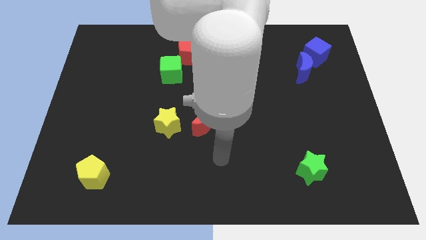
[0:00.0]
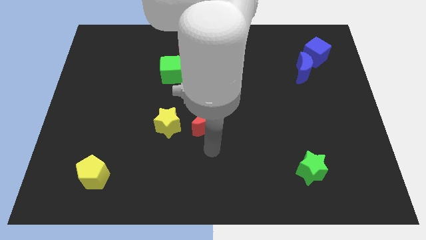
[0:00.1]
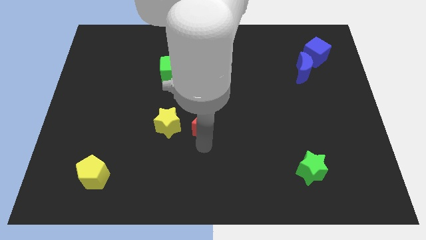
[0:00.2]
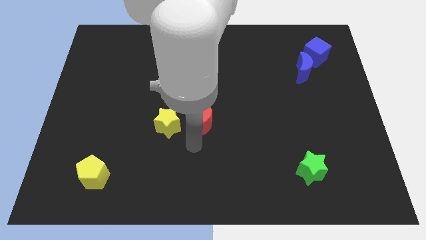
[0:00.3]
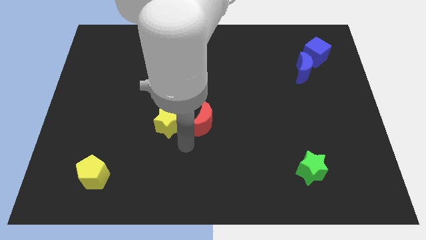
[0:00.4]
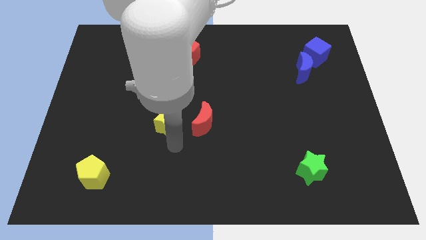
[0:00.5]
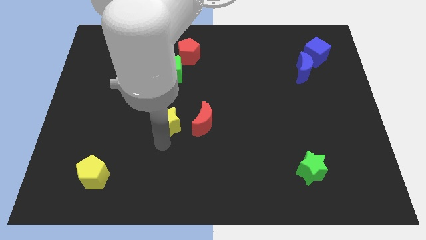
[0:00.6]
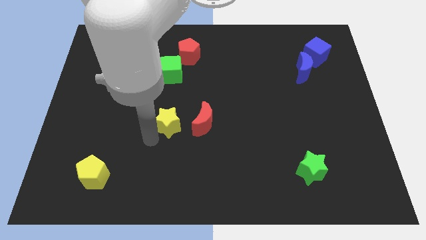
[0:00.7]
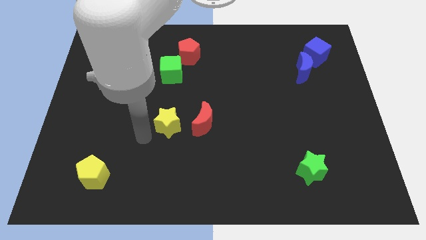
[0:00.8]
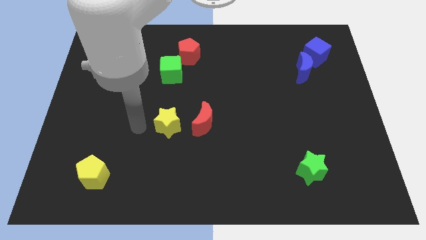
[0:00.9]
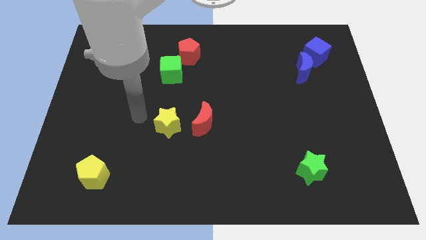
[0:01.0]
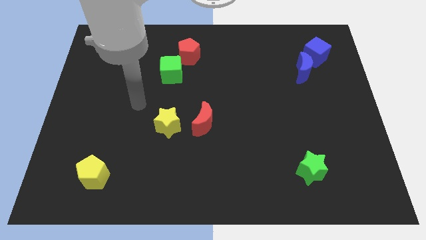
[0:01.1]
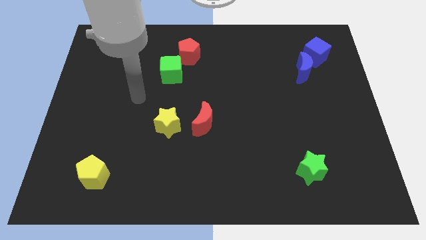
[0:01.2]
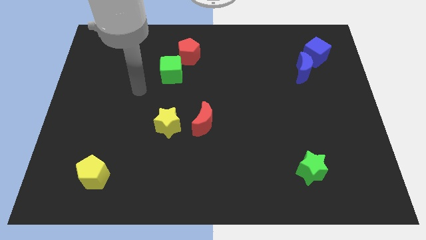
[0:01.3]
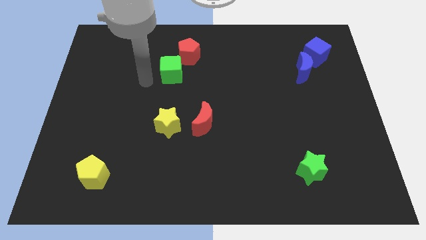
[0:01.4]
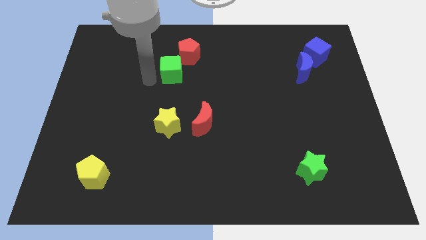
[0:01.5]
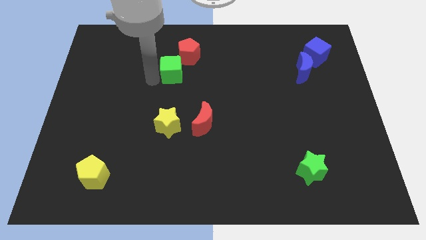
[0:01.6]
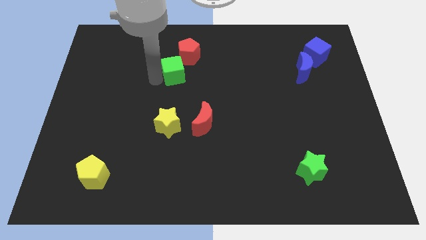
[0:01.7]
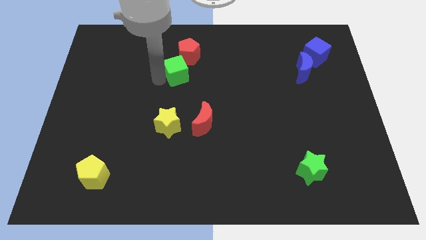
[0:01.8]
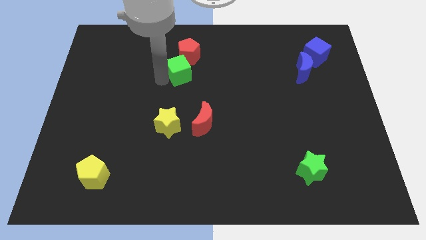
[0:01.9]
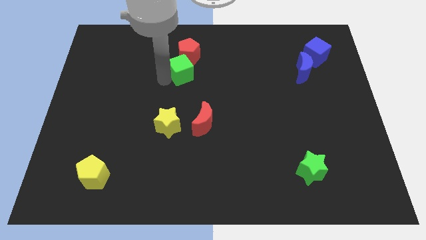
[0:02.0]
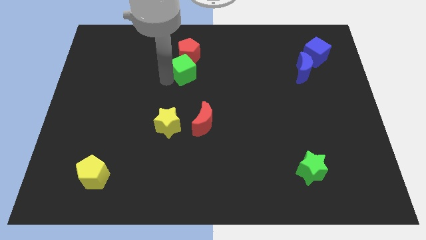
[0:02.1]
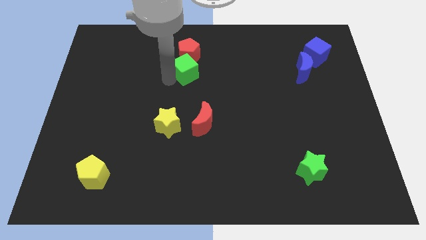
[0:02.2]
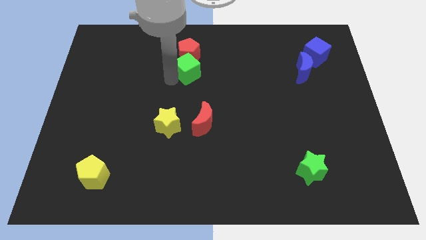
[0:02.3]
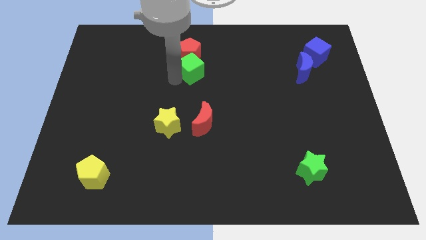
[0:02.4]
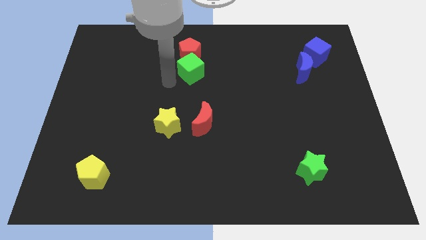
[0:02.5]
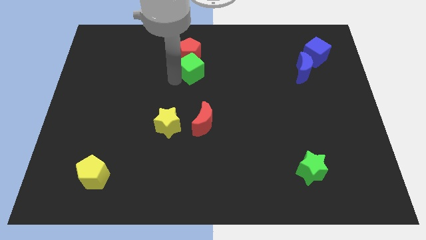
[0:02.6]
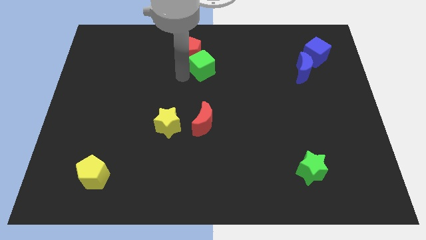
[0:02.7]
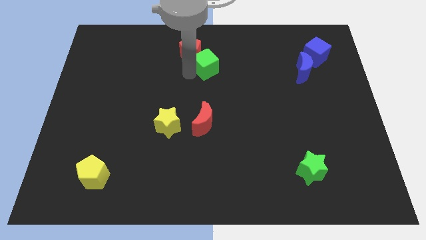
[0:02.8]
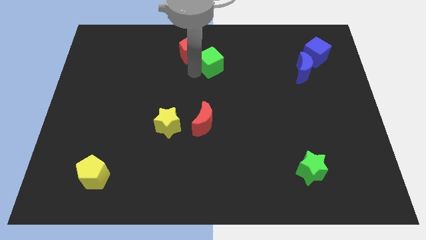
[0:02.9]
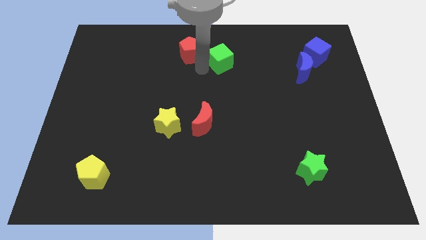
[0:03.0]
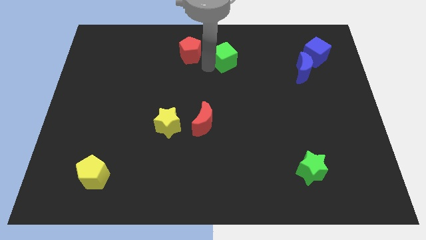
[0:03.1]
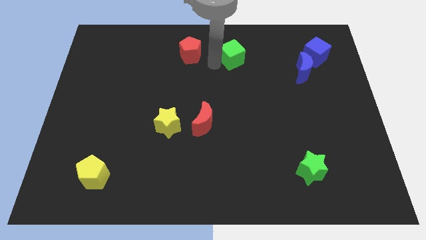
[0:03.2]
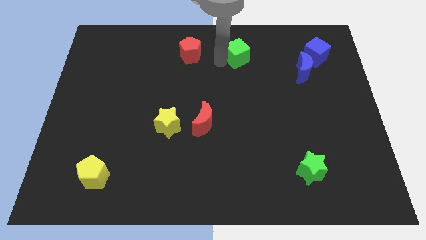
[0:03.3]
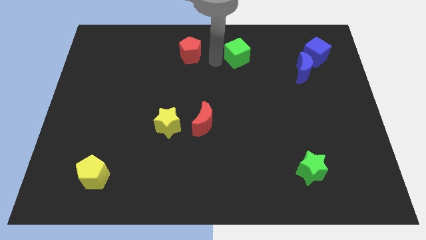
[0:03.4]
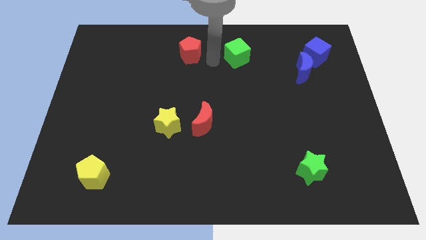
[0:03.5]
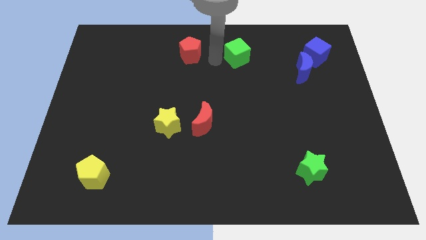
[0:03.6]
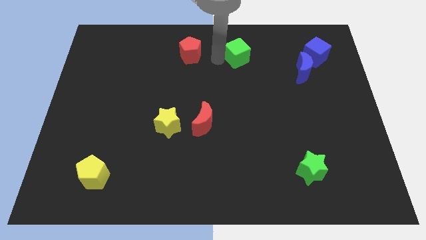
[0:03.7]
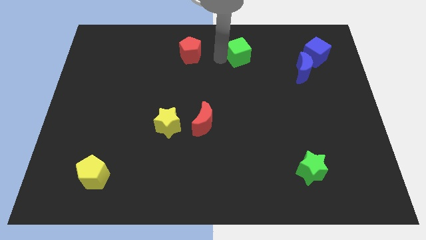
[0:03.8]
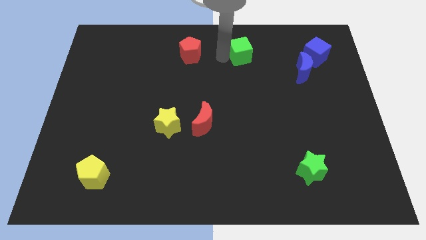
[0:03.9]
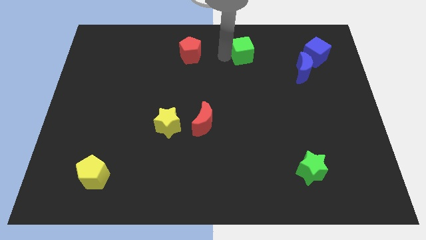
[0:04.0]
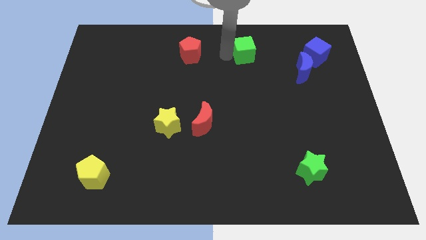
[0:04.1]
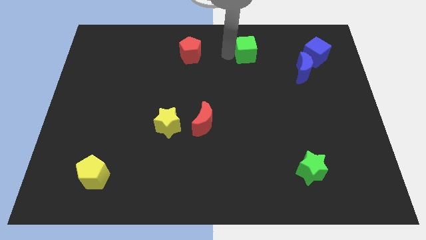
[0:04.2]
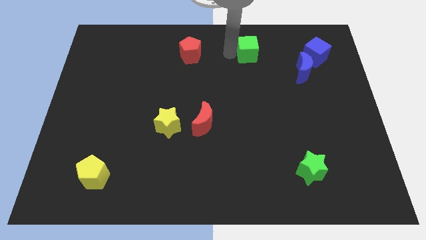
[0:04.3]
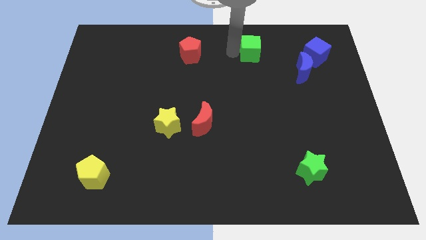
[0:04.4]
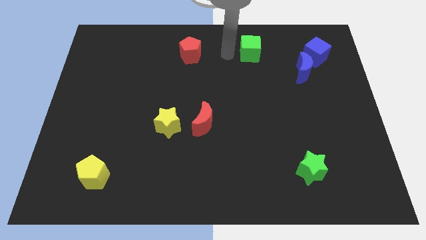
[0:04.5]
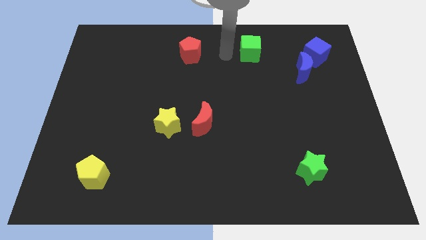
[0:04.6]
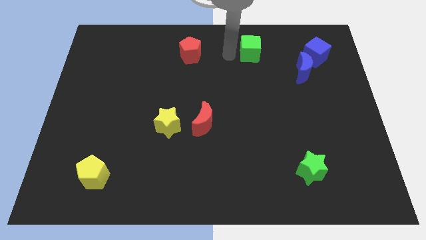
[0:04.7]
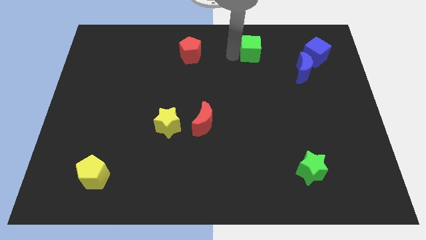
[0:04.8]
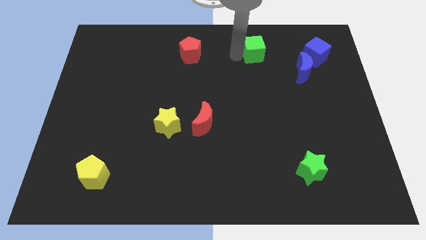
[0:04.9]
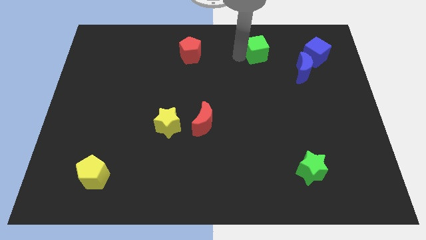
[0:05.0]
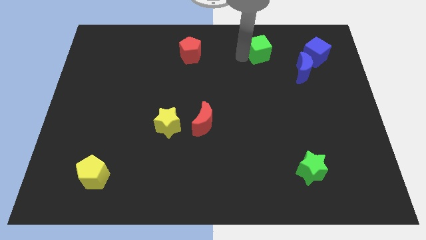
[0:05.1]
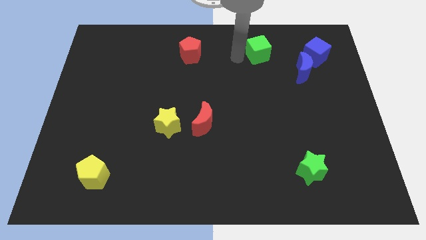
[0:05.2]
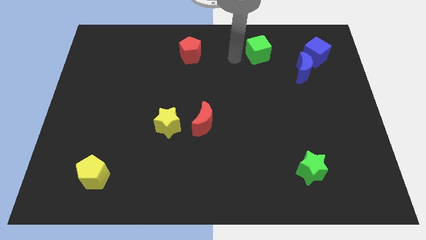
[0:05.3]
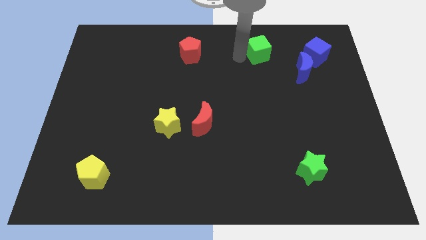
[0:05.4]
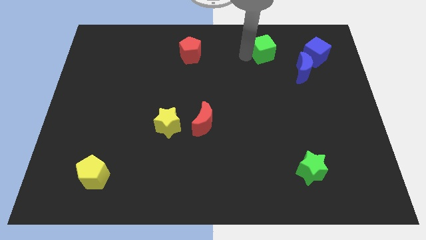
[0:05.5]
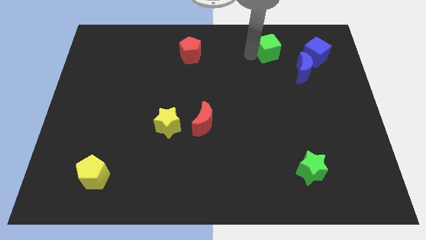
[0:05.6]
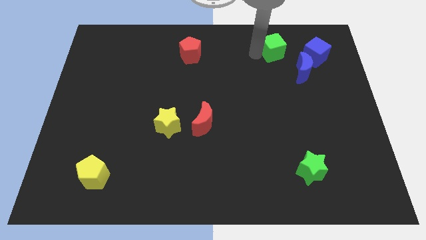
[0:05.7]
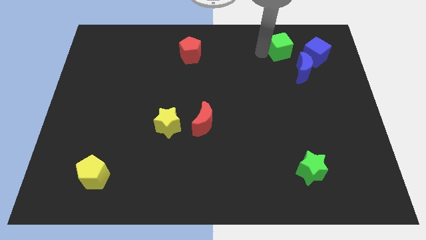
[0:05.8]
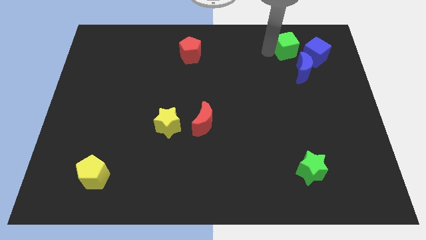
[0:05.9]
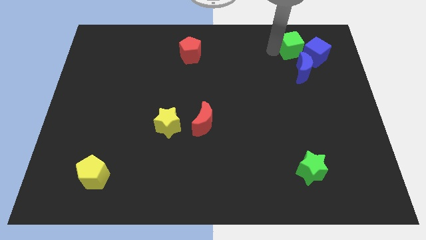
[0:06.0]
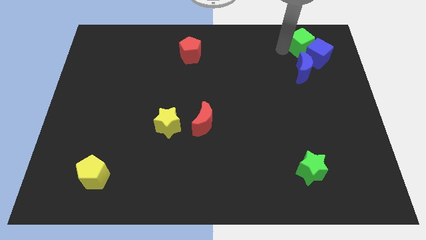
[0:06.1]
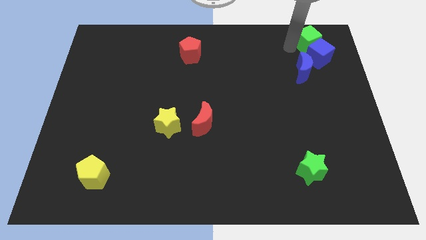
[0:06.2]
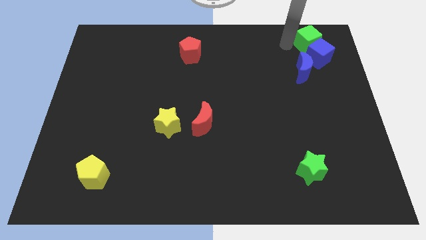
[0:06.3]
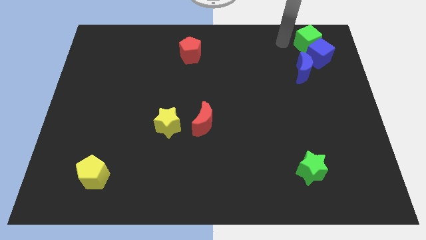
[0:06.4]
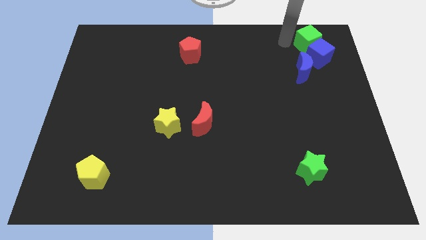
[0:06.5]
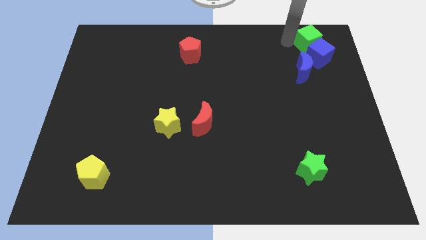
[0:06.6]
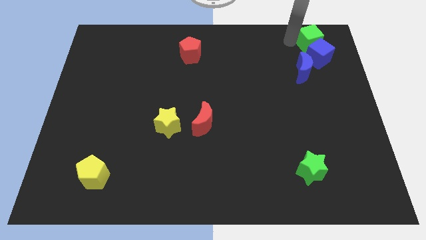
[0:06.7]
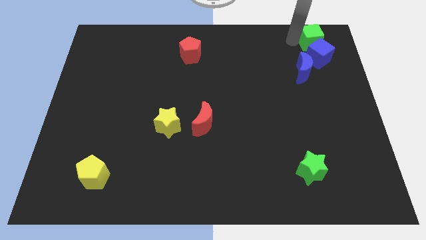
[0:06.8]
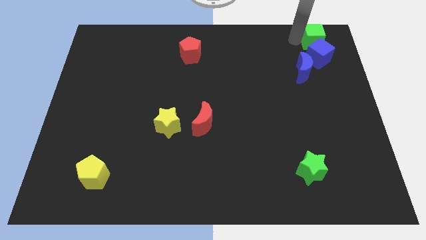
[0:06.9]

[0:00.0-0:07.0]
push the green cube to the top right
